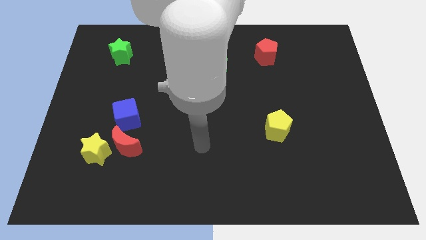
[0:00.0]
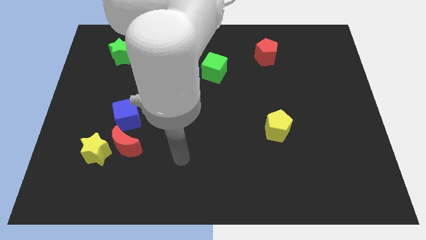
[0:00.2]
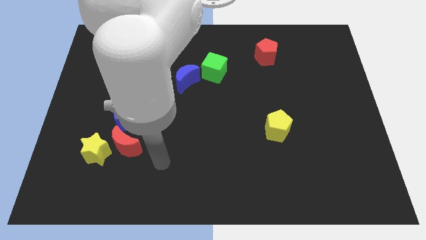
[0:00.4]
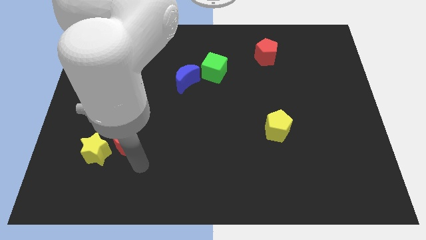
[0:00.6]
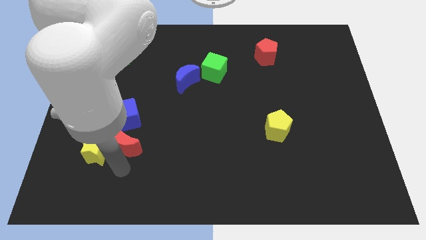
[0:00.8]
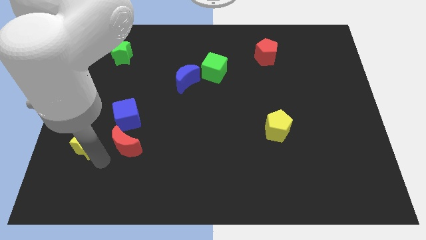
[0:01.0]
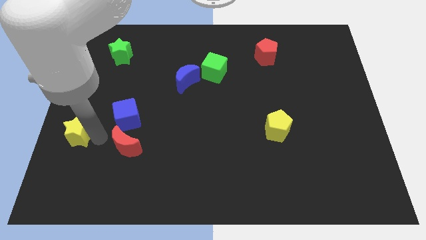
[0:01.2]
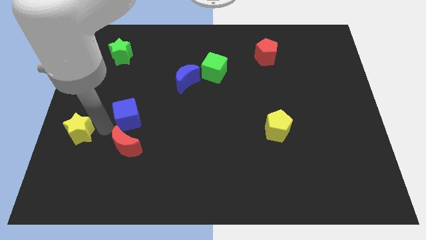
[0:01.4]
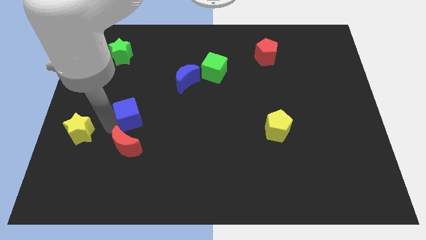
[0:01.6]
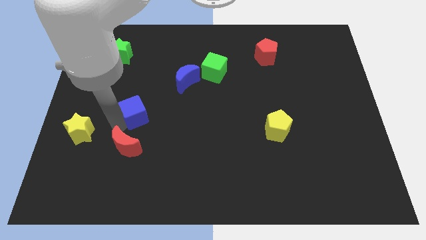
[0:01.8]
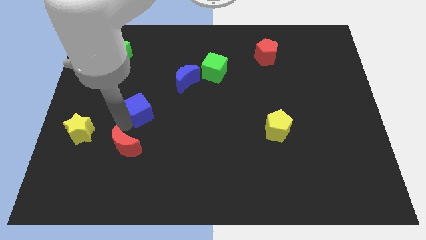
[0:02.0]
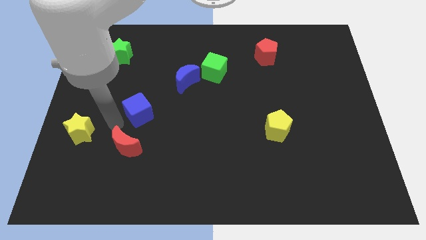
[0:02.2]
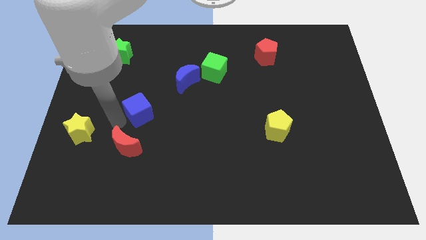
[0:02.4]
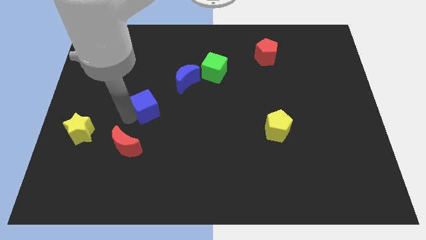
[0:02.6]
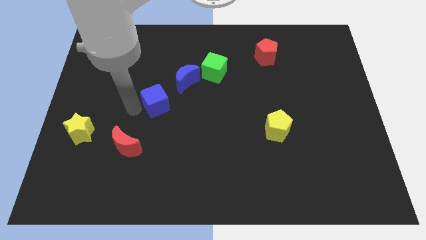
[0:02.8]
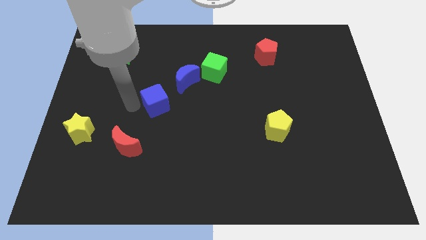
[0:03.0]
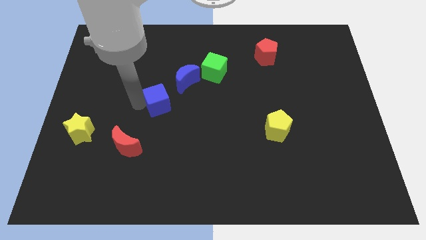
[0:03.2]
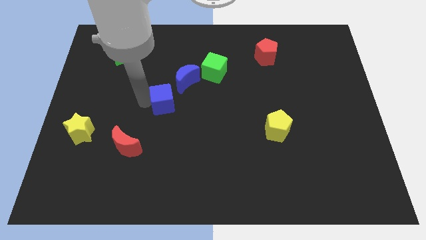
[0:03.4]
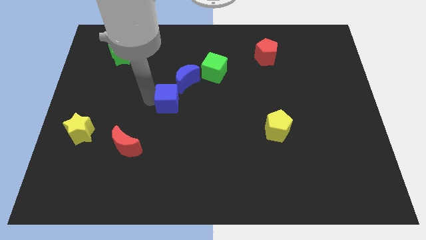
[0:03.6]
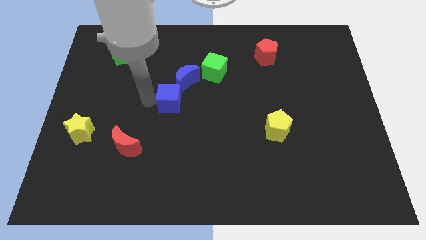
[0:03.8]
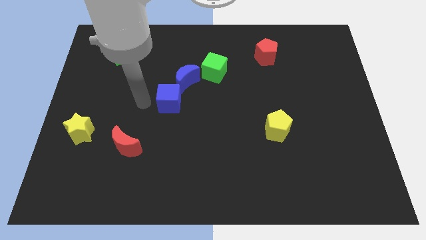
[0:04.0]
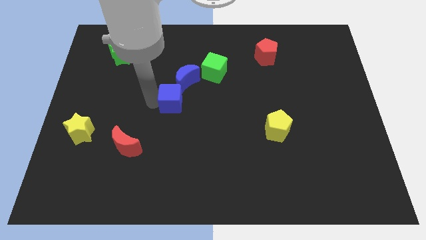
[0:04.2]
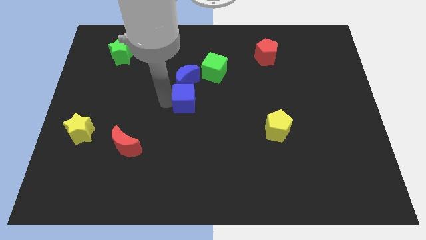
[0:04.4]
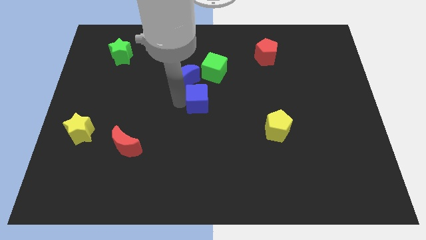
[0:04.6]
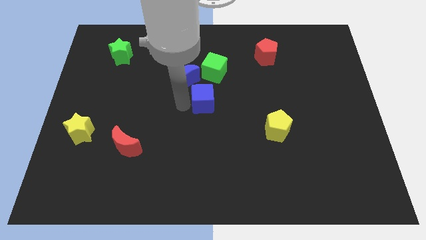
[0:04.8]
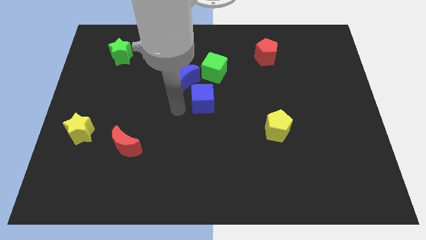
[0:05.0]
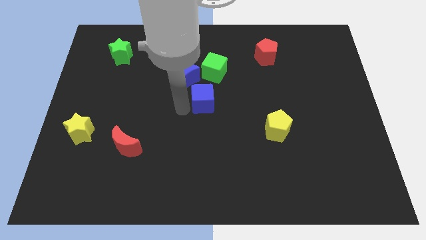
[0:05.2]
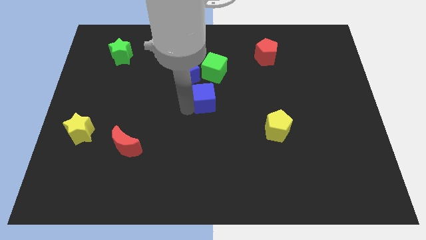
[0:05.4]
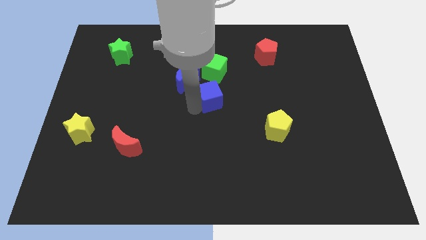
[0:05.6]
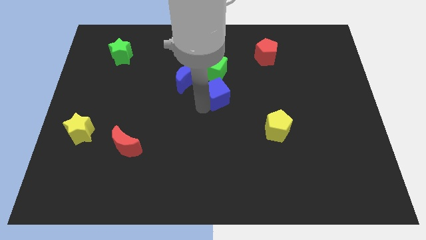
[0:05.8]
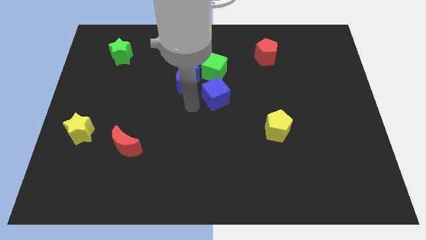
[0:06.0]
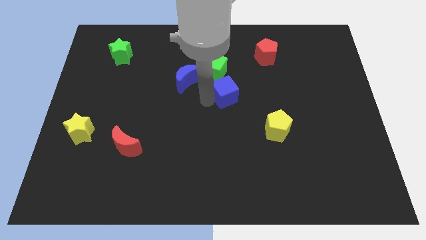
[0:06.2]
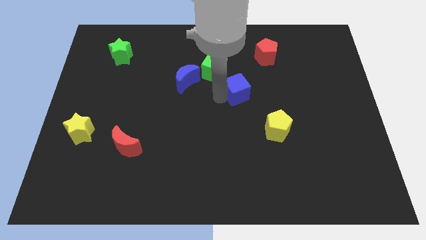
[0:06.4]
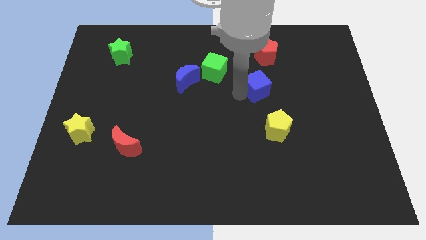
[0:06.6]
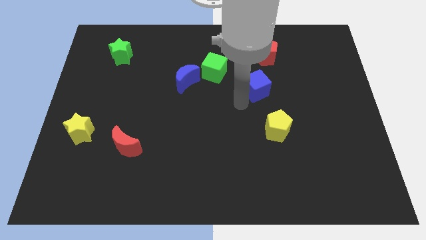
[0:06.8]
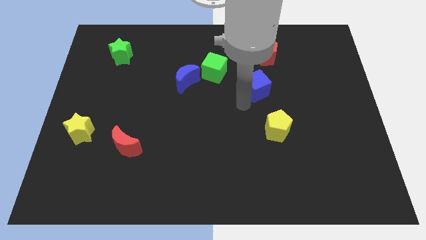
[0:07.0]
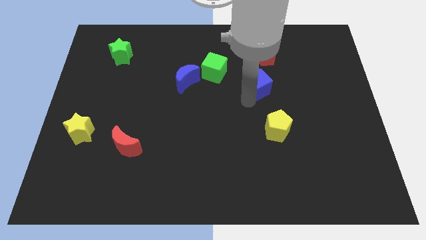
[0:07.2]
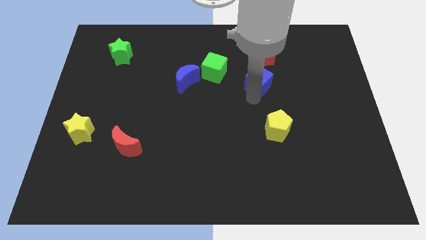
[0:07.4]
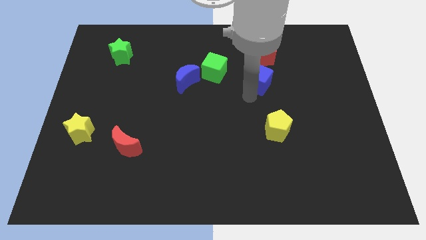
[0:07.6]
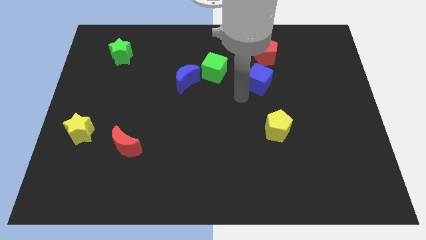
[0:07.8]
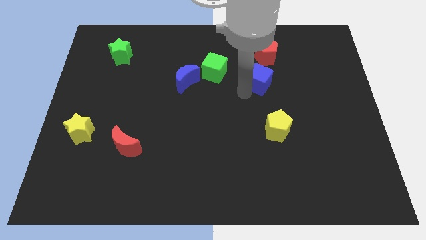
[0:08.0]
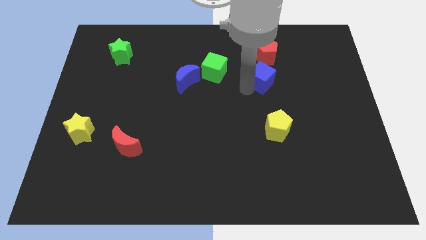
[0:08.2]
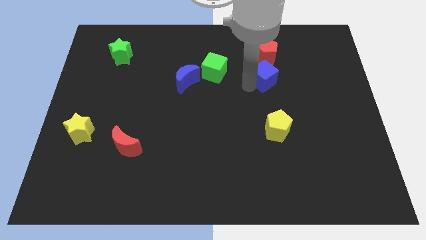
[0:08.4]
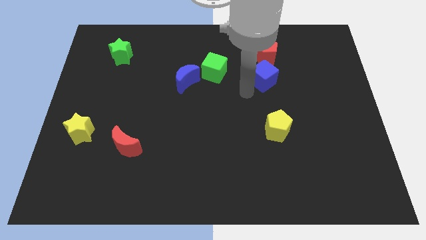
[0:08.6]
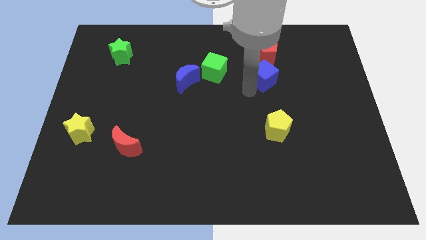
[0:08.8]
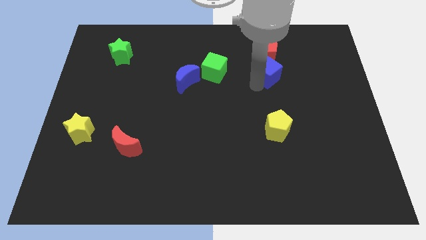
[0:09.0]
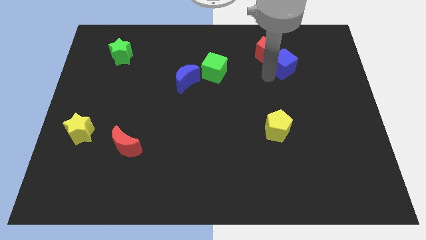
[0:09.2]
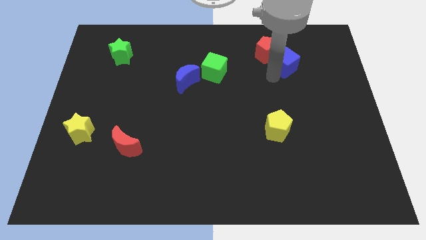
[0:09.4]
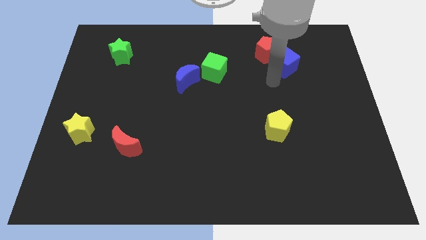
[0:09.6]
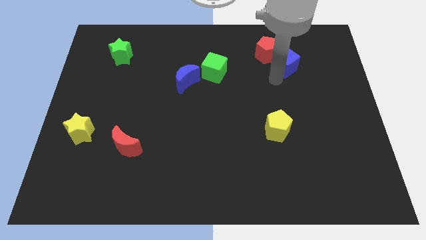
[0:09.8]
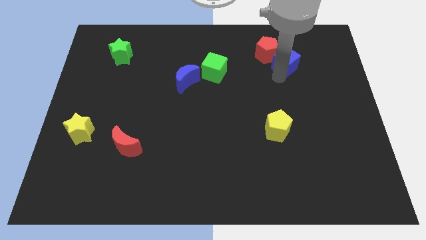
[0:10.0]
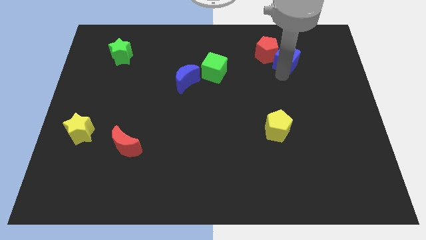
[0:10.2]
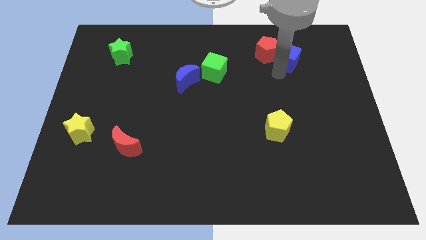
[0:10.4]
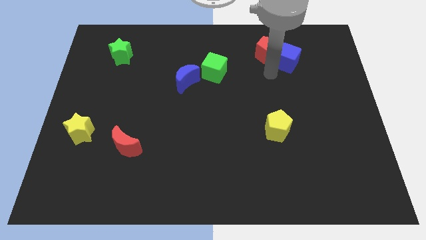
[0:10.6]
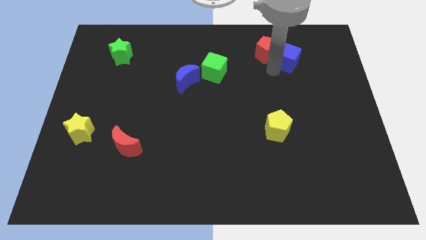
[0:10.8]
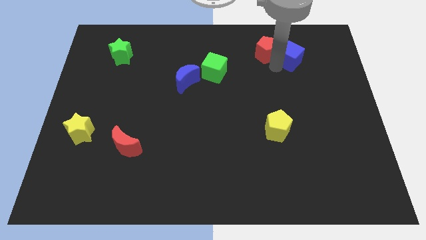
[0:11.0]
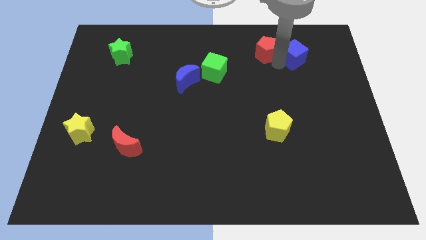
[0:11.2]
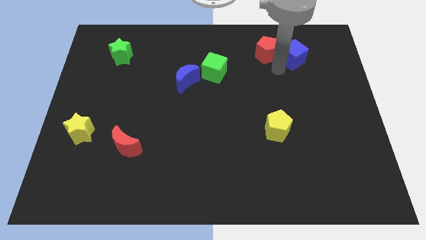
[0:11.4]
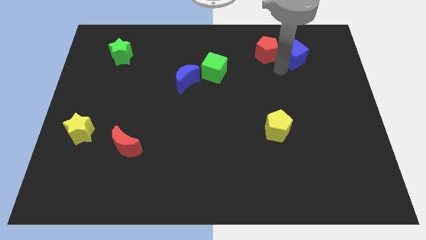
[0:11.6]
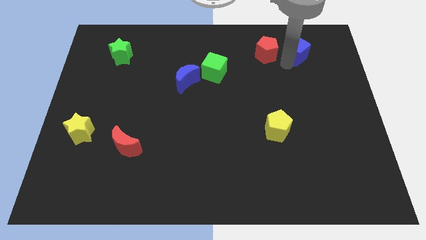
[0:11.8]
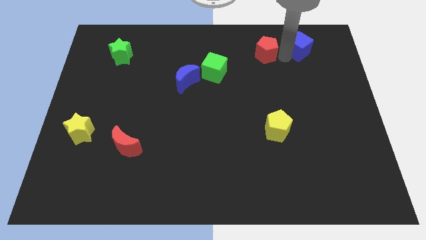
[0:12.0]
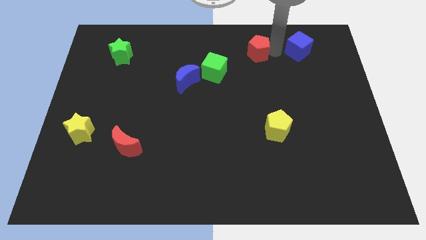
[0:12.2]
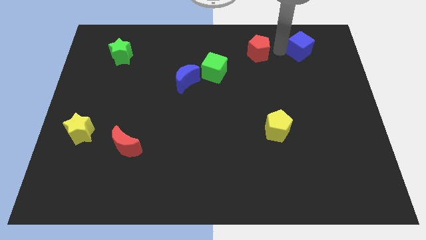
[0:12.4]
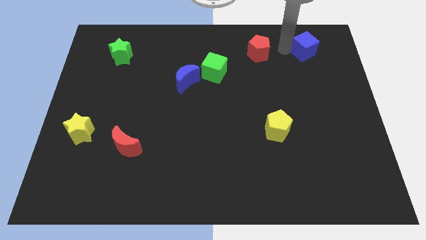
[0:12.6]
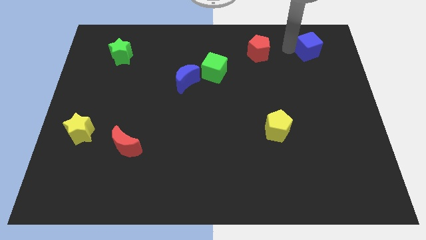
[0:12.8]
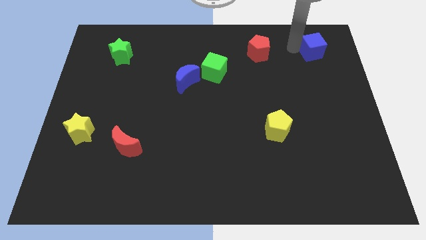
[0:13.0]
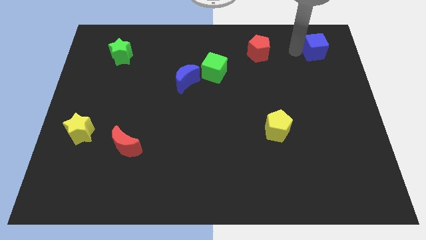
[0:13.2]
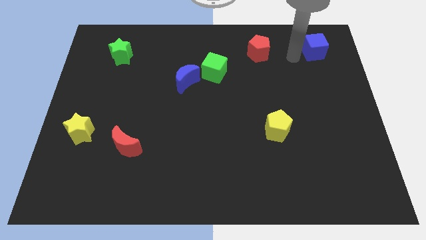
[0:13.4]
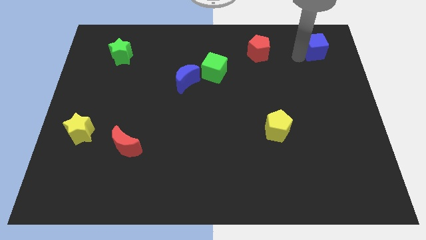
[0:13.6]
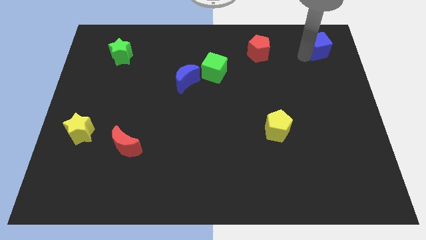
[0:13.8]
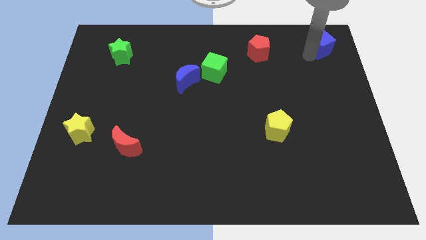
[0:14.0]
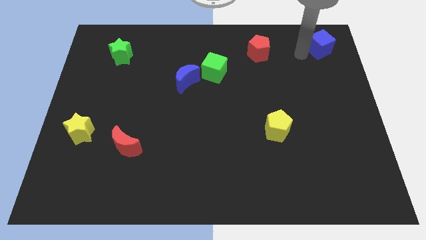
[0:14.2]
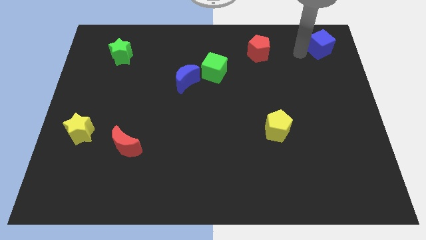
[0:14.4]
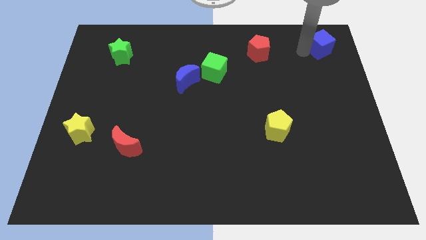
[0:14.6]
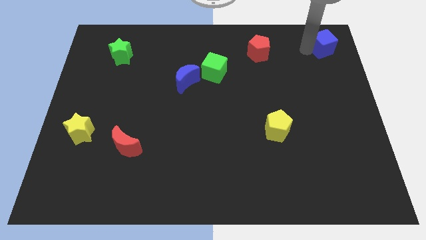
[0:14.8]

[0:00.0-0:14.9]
put the blue cube to the upper right corner
